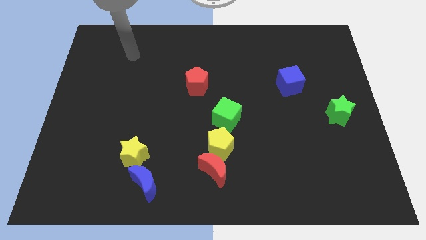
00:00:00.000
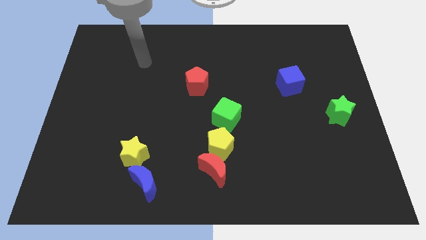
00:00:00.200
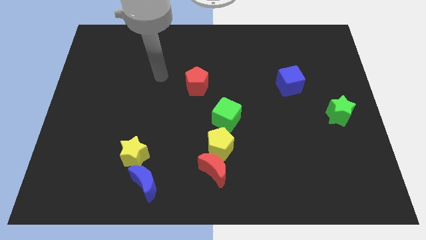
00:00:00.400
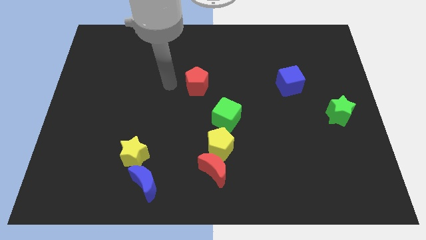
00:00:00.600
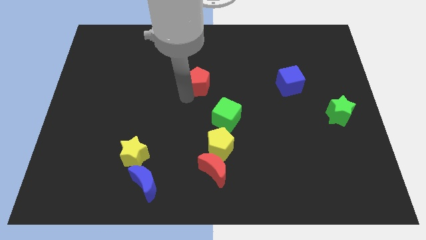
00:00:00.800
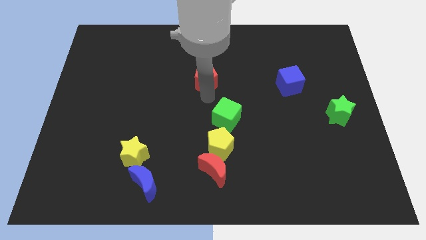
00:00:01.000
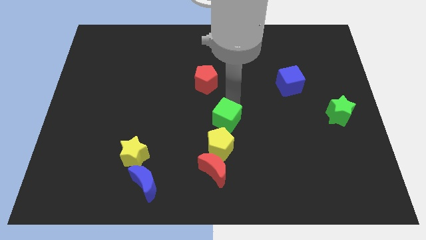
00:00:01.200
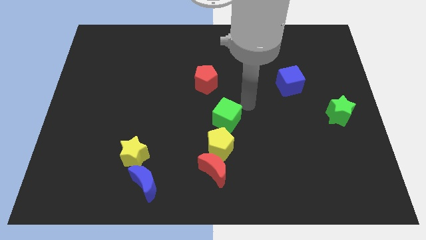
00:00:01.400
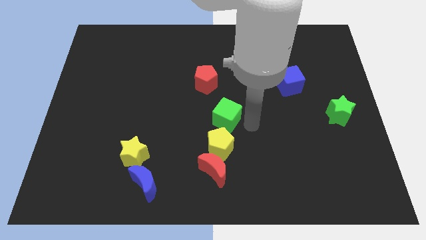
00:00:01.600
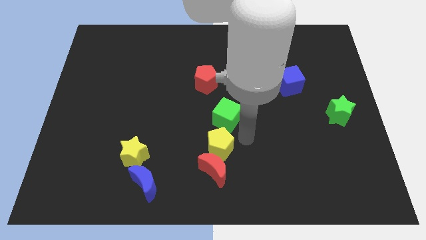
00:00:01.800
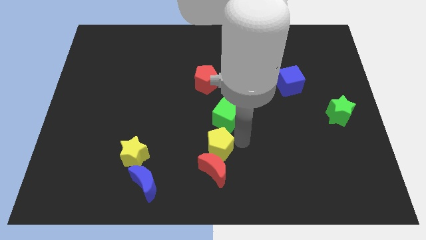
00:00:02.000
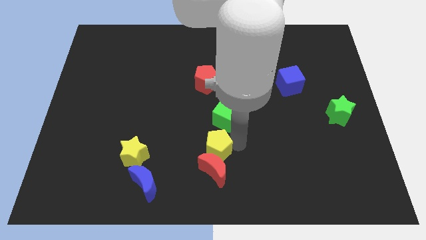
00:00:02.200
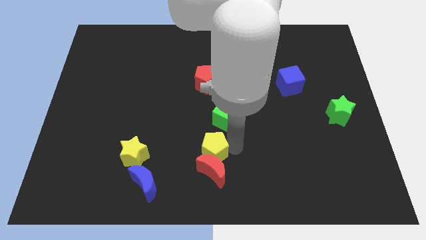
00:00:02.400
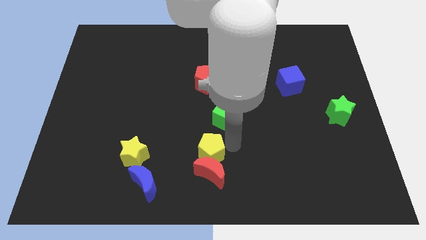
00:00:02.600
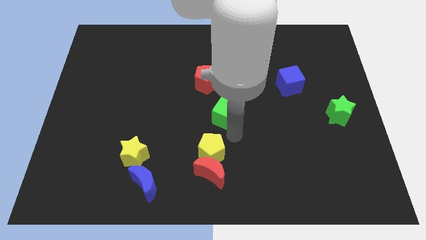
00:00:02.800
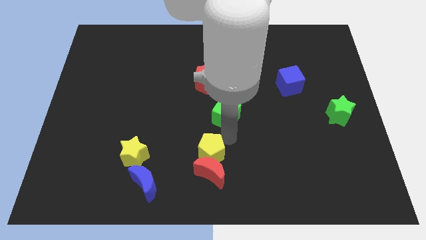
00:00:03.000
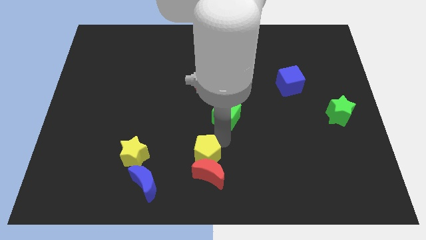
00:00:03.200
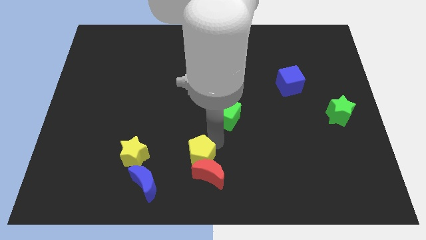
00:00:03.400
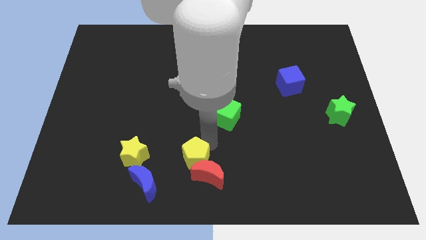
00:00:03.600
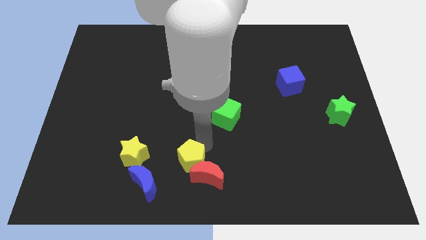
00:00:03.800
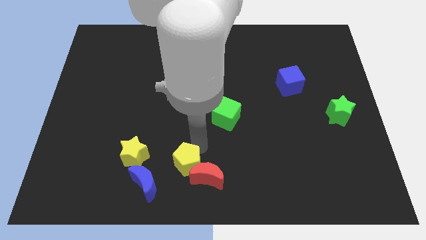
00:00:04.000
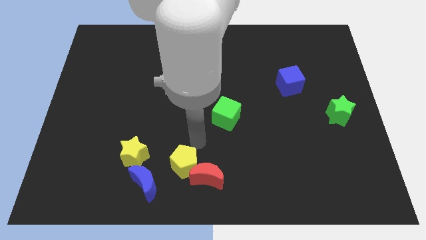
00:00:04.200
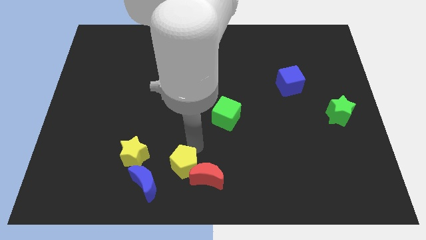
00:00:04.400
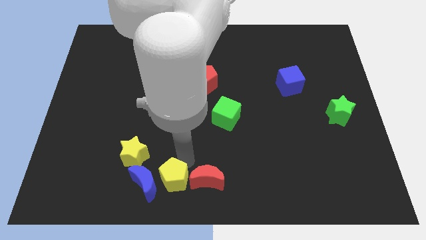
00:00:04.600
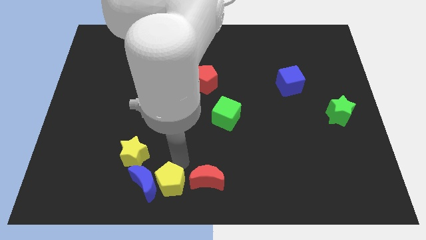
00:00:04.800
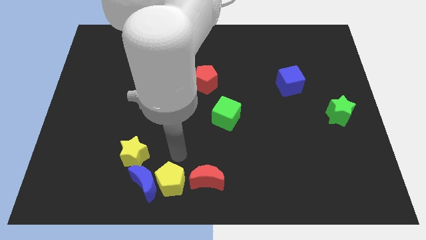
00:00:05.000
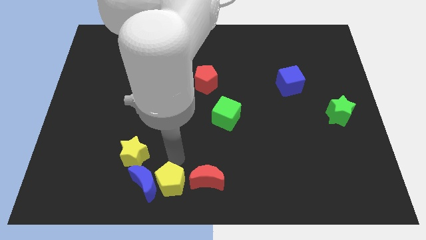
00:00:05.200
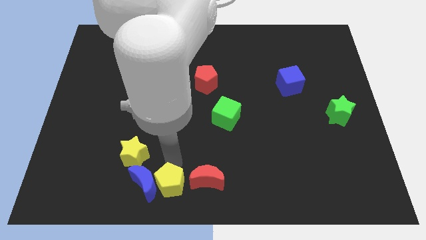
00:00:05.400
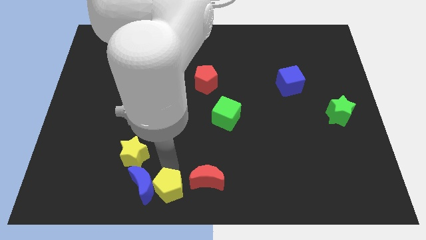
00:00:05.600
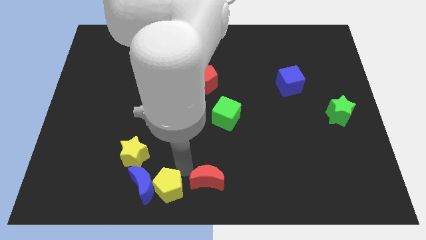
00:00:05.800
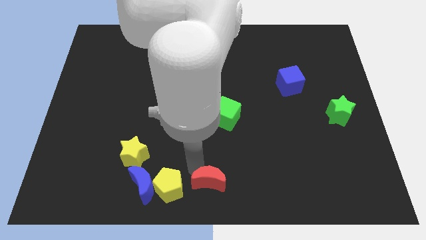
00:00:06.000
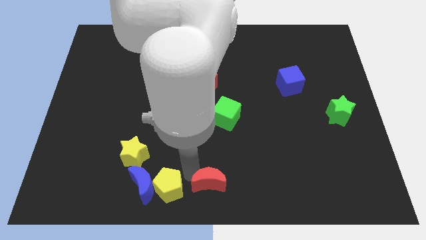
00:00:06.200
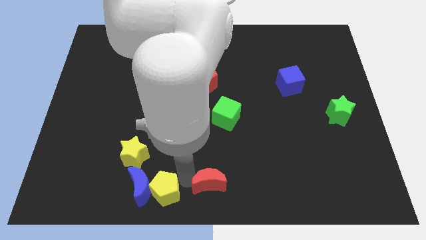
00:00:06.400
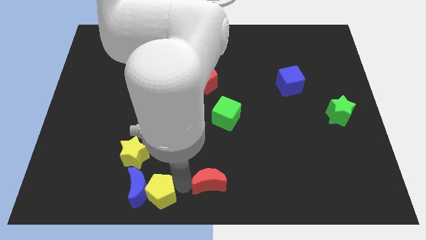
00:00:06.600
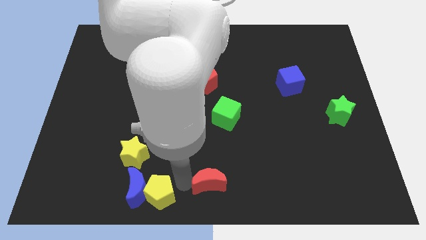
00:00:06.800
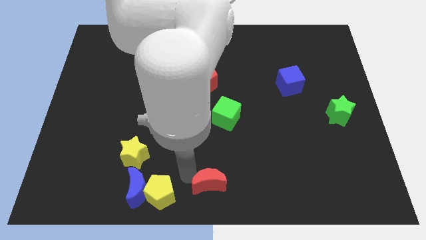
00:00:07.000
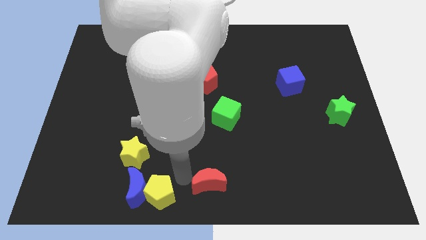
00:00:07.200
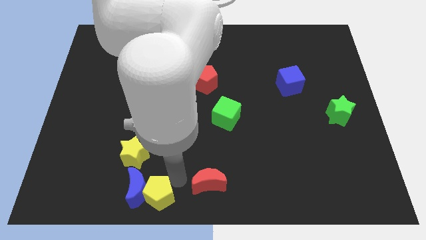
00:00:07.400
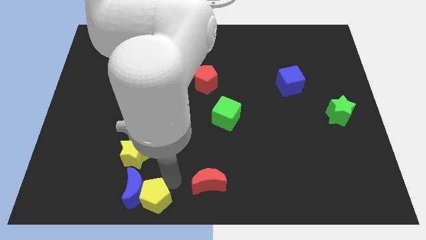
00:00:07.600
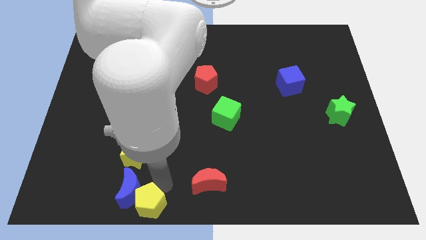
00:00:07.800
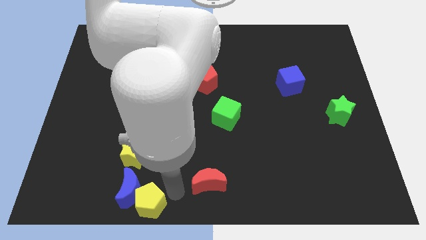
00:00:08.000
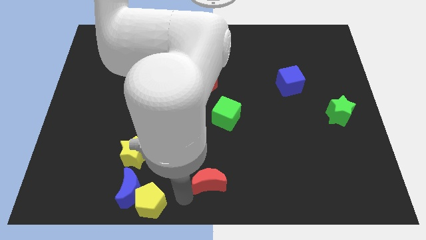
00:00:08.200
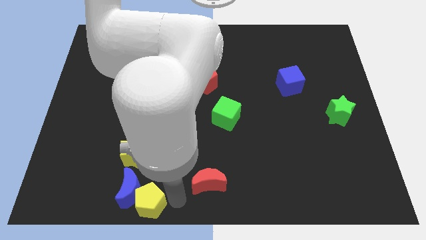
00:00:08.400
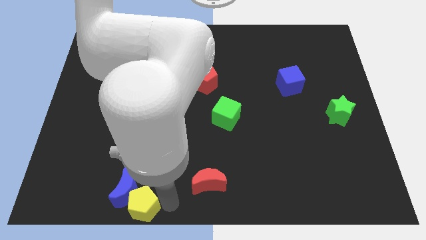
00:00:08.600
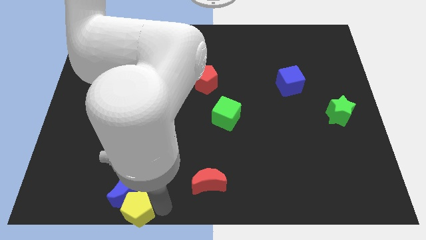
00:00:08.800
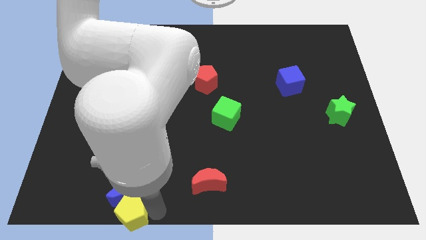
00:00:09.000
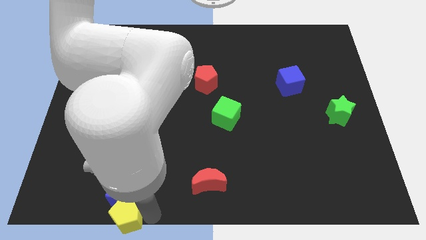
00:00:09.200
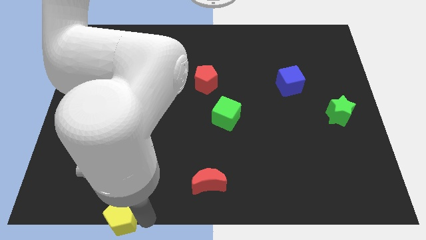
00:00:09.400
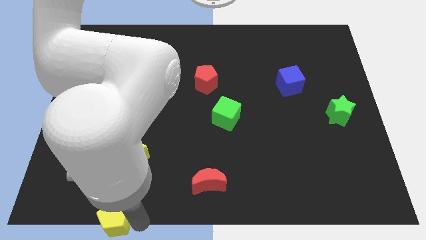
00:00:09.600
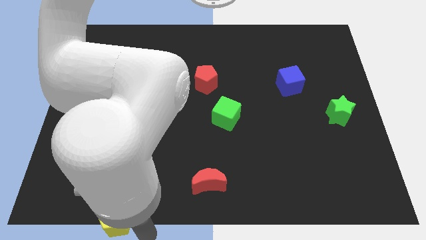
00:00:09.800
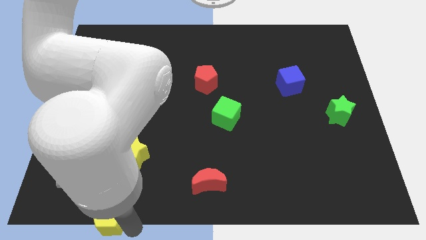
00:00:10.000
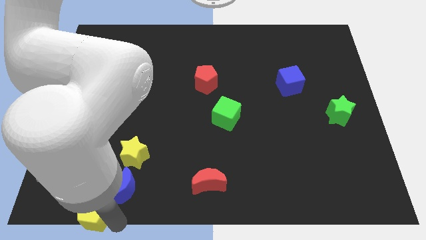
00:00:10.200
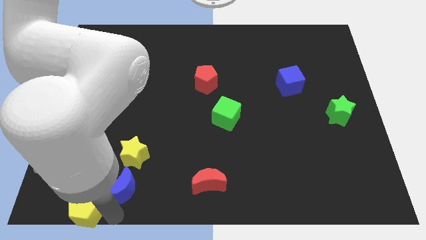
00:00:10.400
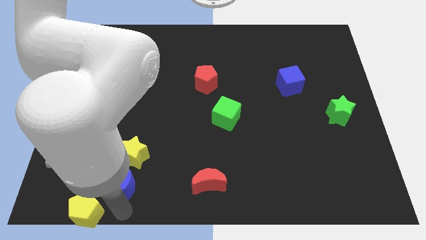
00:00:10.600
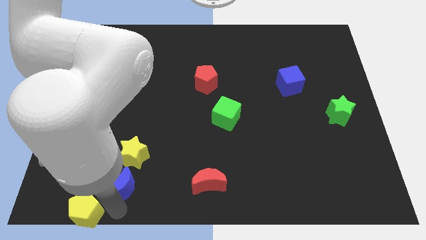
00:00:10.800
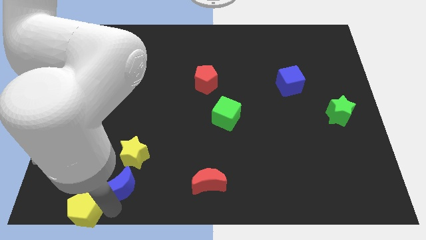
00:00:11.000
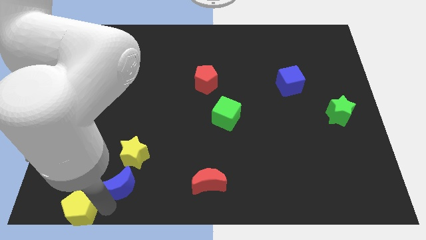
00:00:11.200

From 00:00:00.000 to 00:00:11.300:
move the yellow pentagon to the bottom left corner

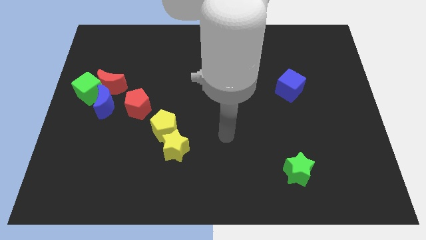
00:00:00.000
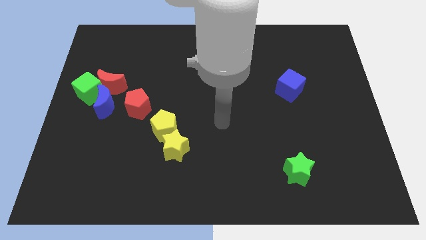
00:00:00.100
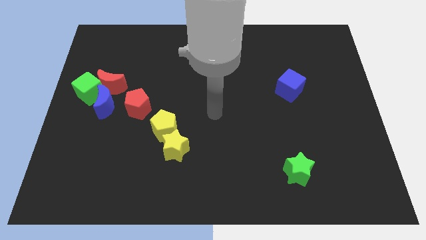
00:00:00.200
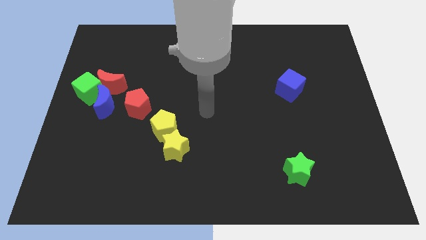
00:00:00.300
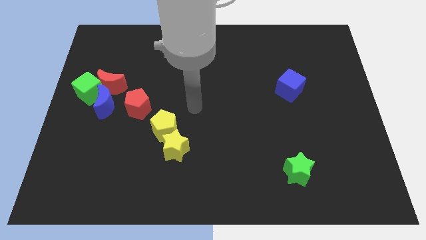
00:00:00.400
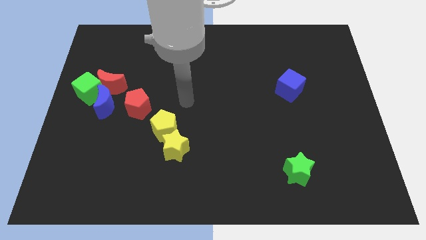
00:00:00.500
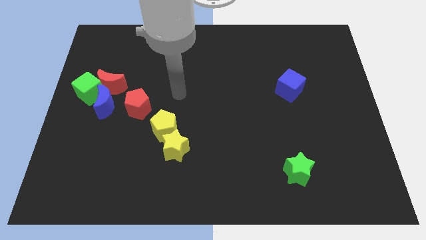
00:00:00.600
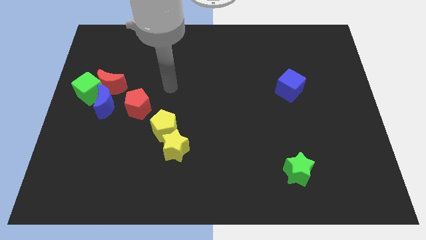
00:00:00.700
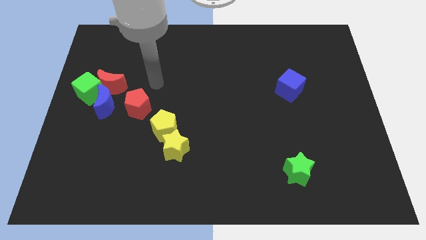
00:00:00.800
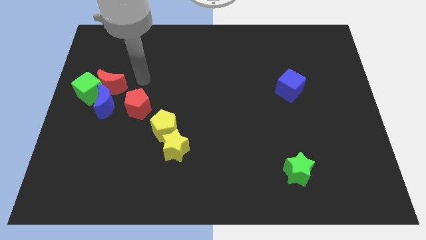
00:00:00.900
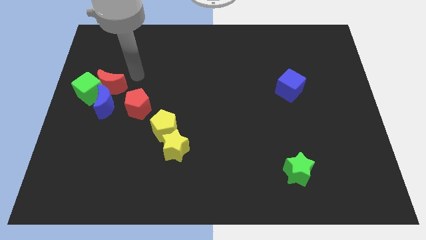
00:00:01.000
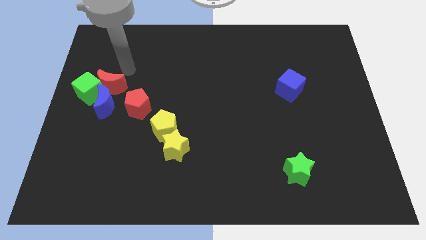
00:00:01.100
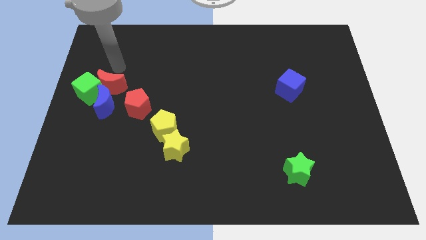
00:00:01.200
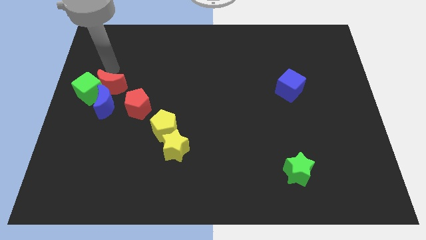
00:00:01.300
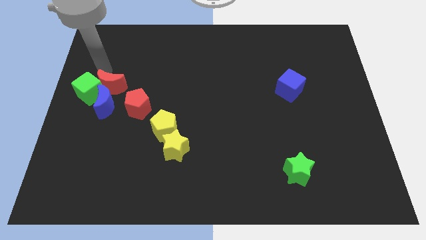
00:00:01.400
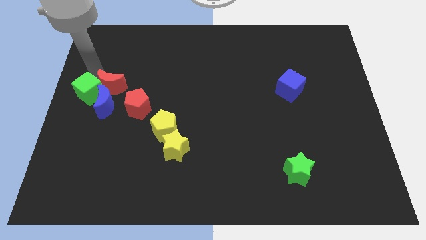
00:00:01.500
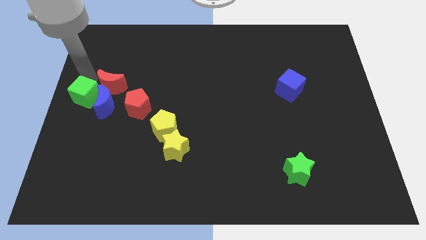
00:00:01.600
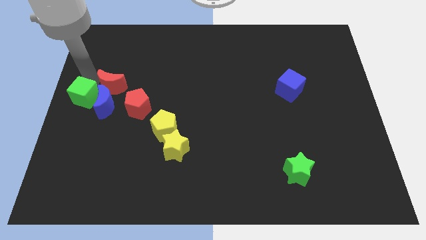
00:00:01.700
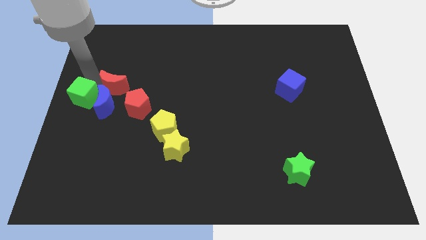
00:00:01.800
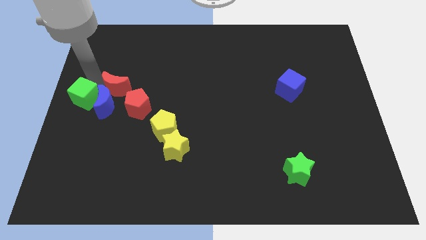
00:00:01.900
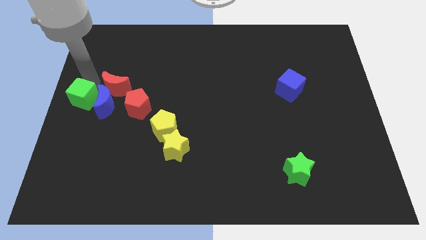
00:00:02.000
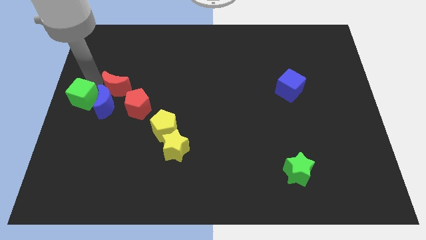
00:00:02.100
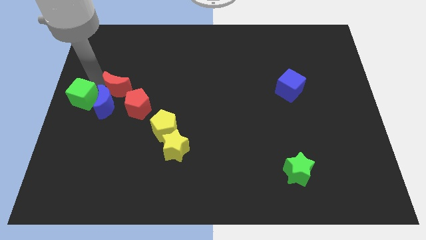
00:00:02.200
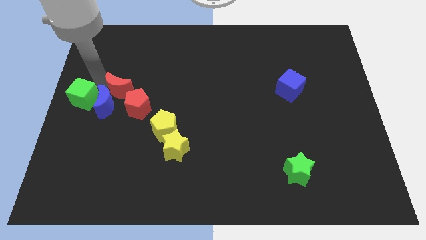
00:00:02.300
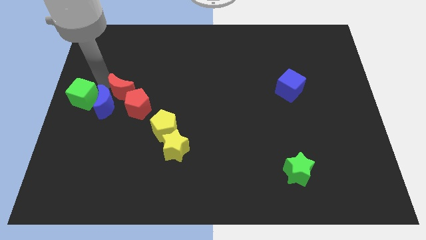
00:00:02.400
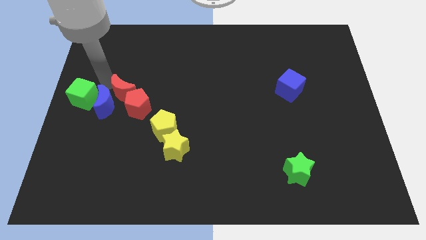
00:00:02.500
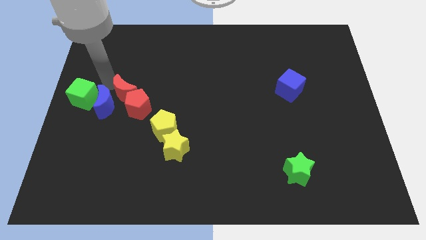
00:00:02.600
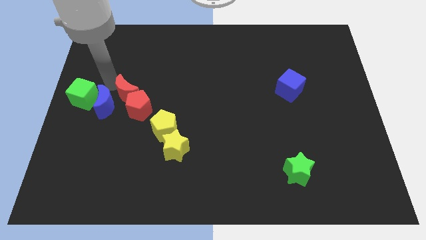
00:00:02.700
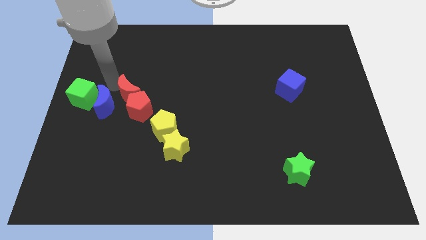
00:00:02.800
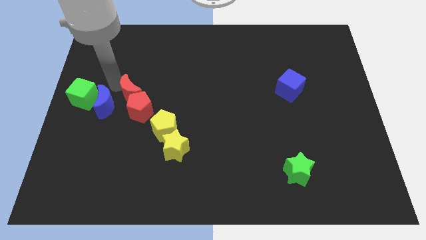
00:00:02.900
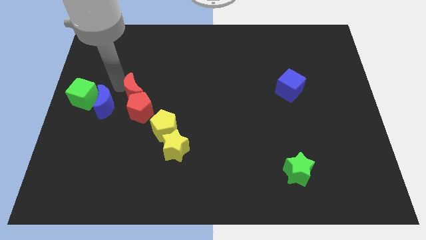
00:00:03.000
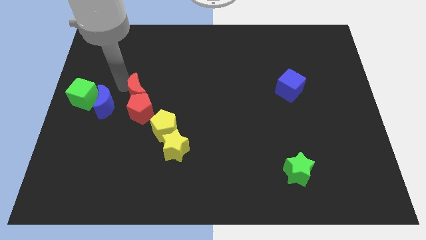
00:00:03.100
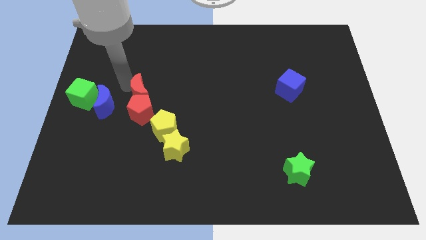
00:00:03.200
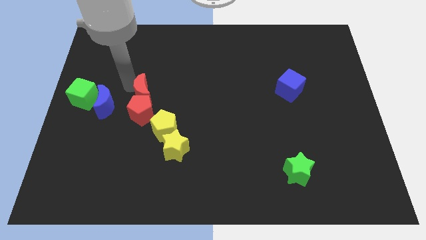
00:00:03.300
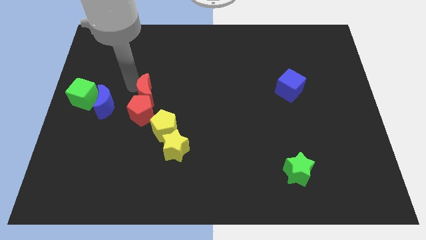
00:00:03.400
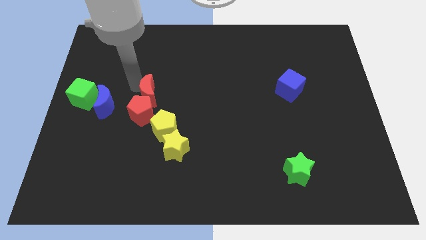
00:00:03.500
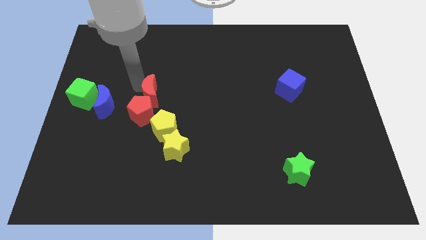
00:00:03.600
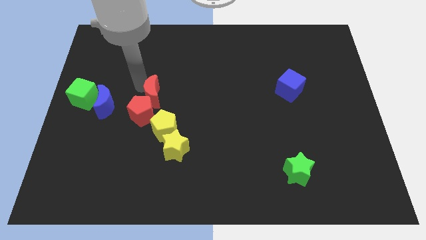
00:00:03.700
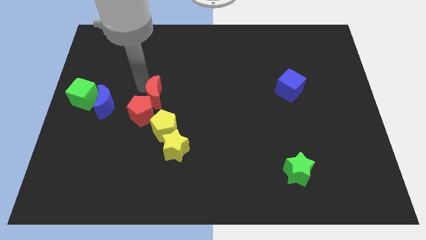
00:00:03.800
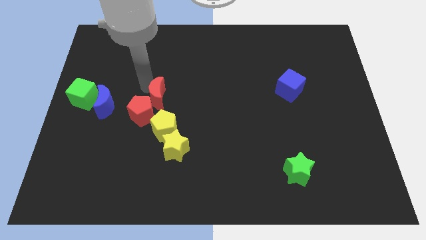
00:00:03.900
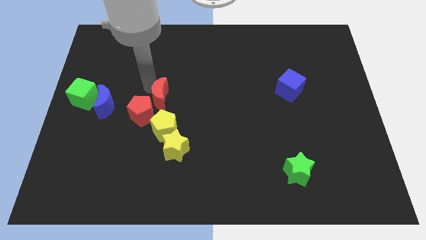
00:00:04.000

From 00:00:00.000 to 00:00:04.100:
push the red moon to the center
